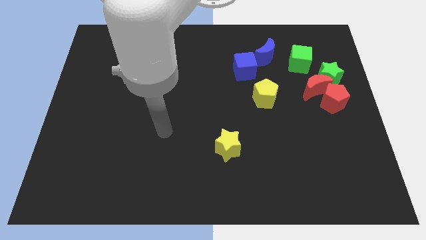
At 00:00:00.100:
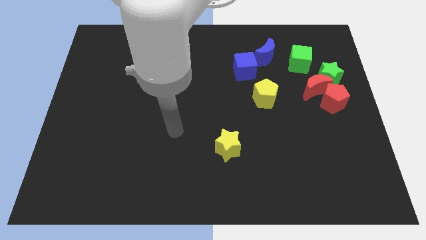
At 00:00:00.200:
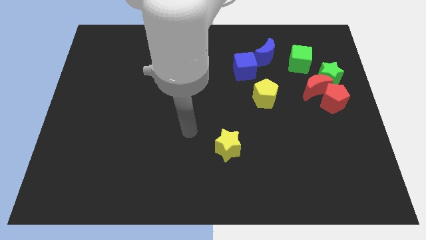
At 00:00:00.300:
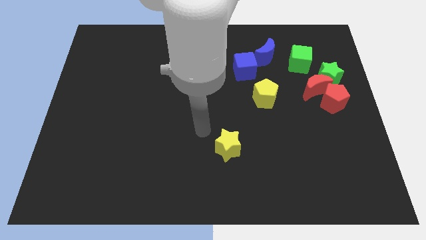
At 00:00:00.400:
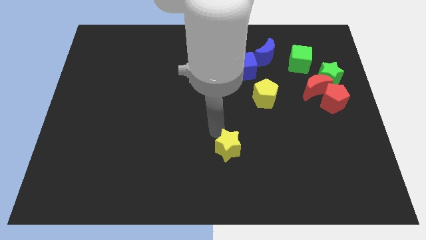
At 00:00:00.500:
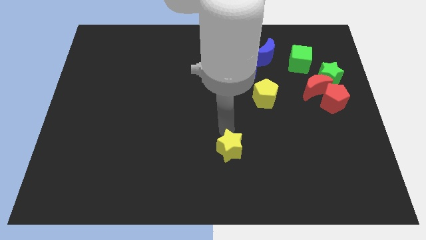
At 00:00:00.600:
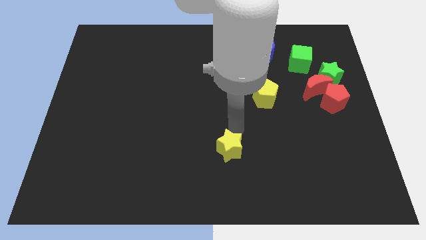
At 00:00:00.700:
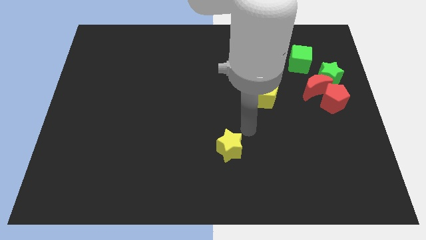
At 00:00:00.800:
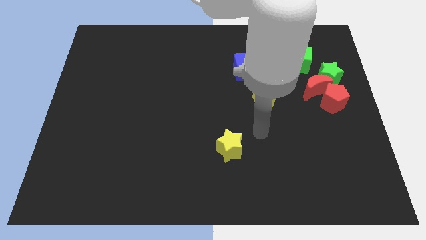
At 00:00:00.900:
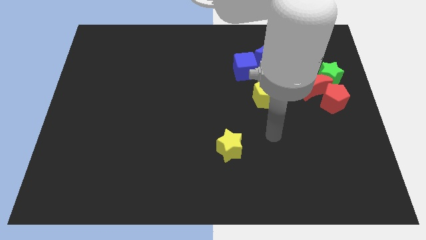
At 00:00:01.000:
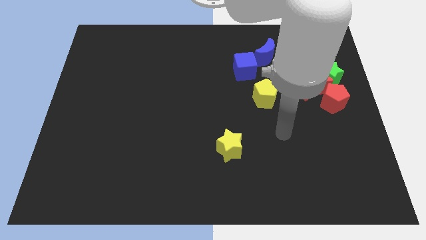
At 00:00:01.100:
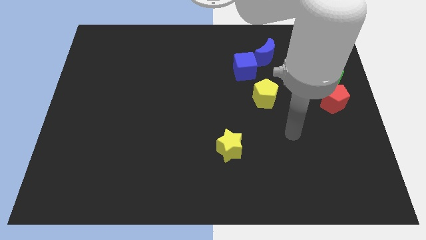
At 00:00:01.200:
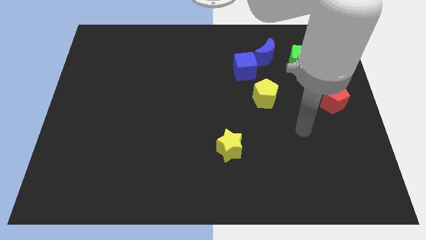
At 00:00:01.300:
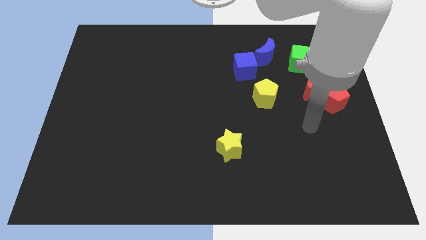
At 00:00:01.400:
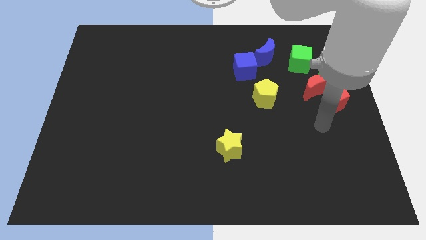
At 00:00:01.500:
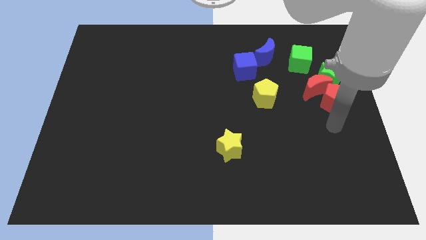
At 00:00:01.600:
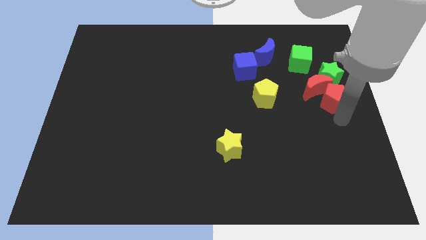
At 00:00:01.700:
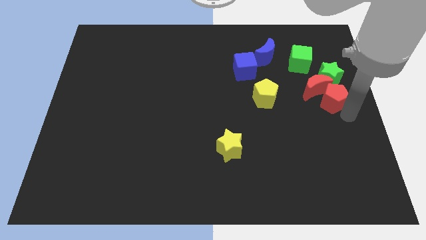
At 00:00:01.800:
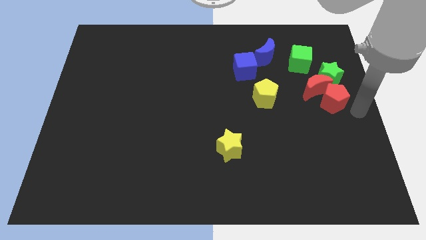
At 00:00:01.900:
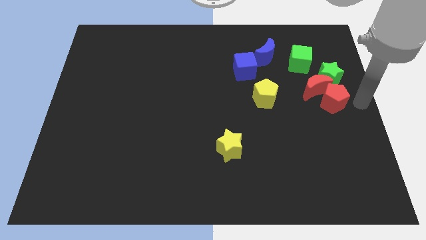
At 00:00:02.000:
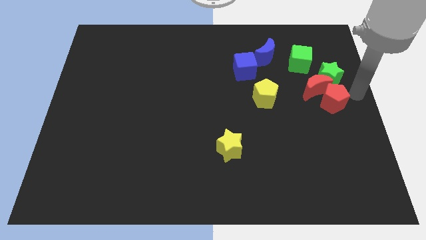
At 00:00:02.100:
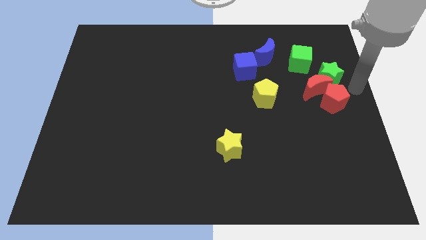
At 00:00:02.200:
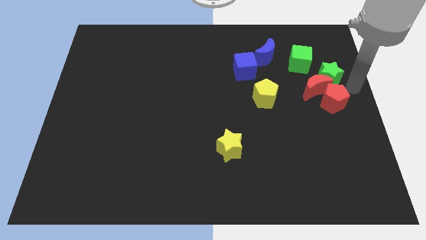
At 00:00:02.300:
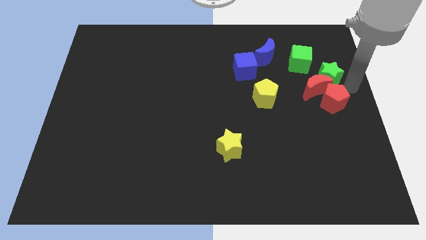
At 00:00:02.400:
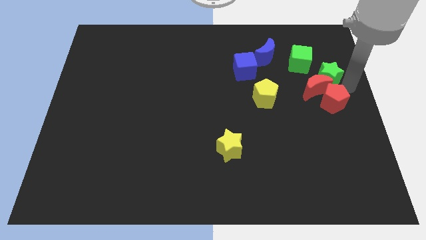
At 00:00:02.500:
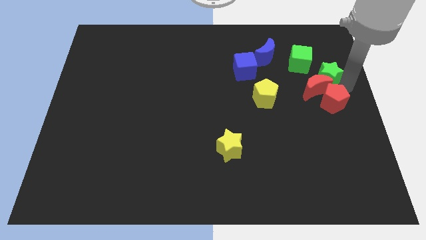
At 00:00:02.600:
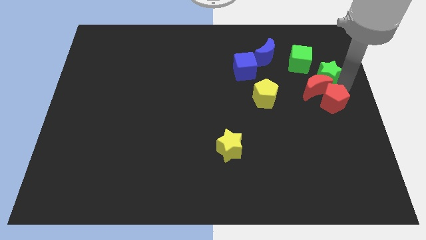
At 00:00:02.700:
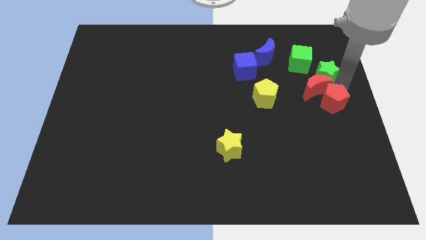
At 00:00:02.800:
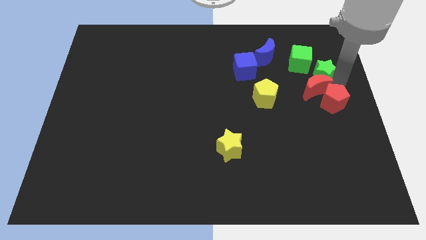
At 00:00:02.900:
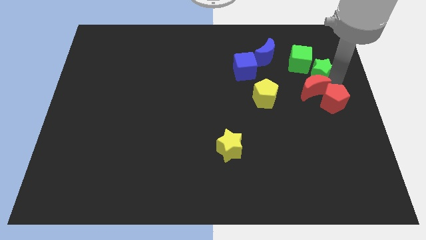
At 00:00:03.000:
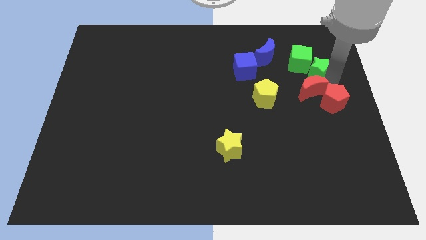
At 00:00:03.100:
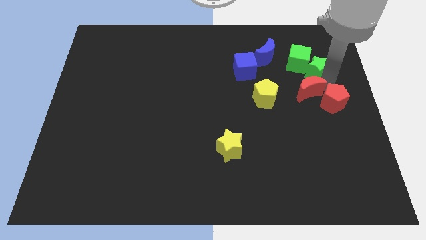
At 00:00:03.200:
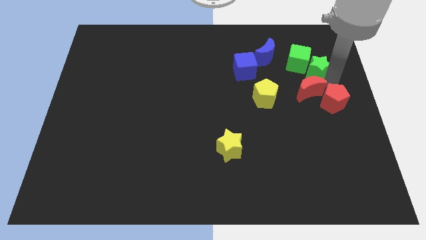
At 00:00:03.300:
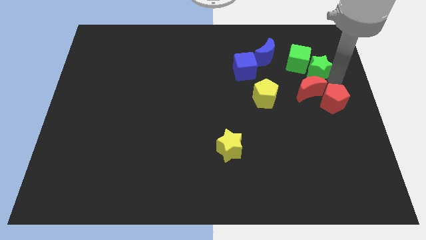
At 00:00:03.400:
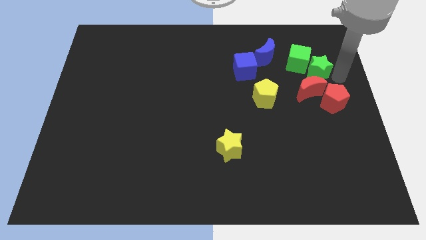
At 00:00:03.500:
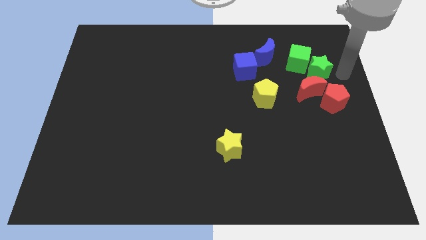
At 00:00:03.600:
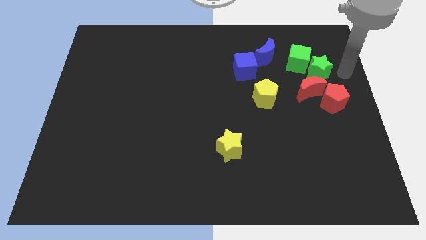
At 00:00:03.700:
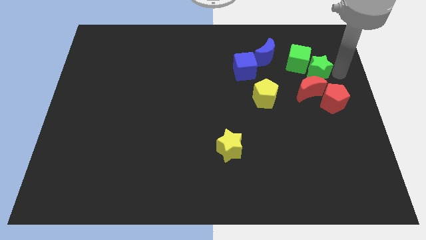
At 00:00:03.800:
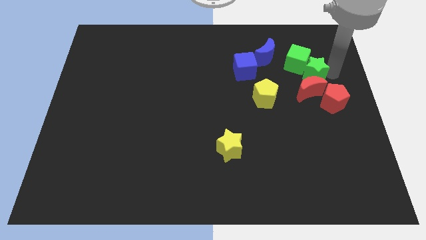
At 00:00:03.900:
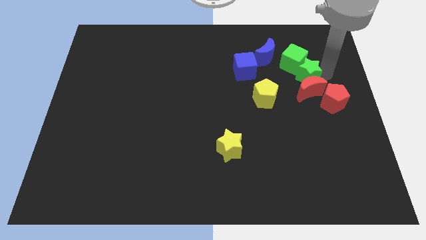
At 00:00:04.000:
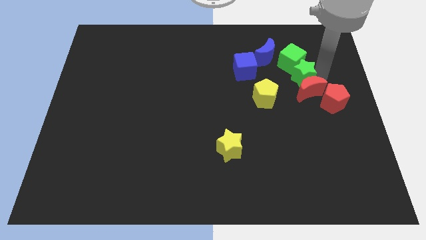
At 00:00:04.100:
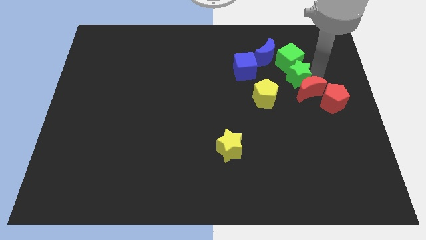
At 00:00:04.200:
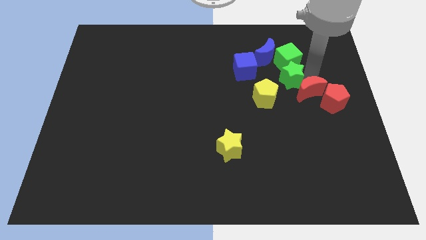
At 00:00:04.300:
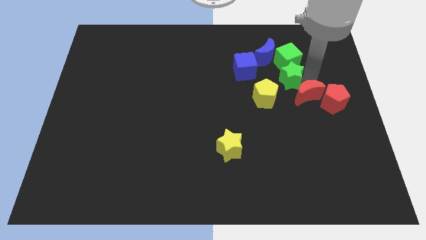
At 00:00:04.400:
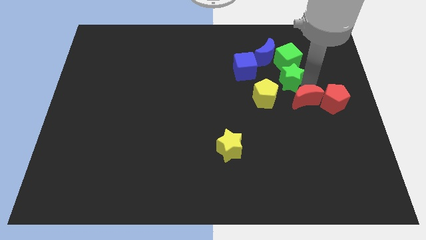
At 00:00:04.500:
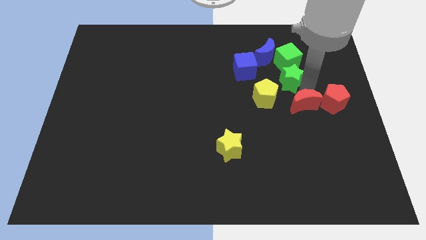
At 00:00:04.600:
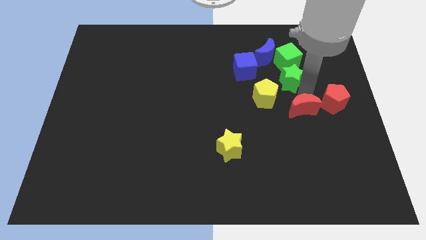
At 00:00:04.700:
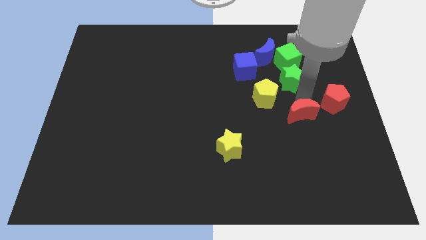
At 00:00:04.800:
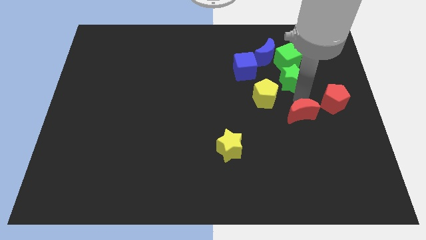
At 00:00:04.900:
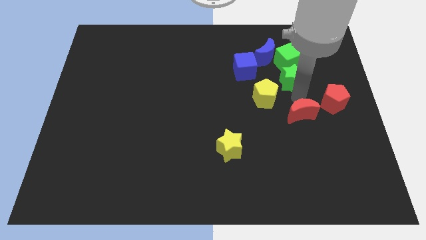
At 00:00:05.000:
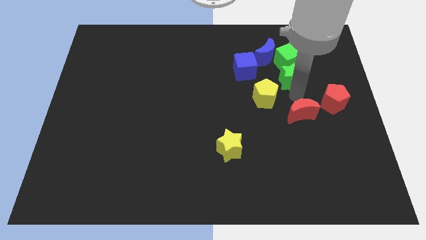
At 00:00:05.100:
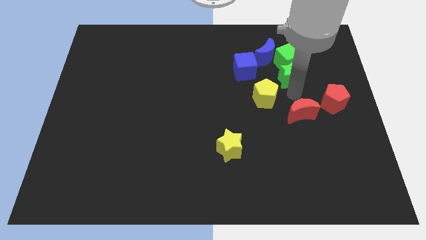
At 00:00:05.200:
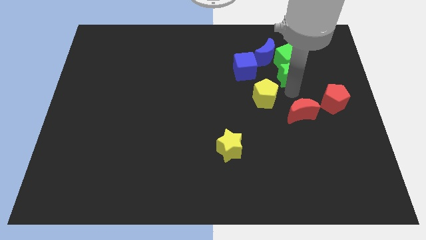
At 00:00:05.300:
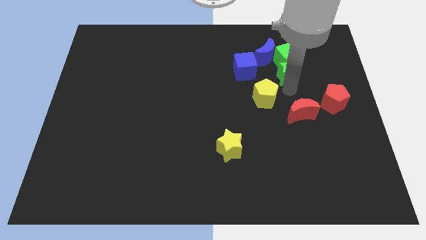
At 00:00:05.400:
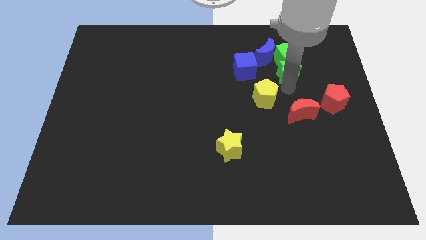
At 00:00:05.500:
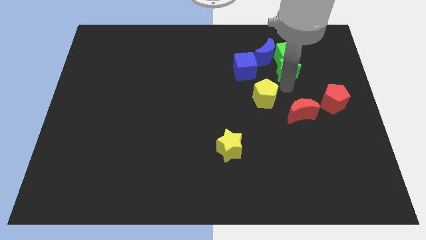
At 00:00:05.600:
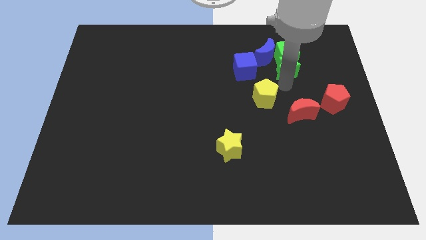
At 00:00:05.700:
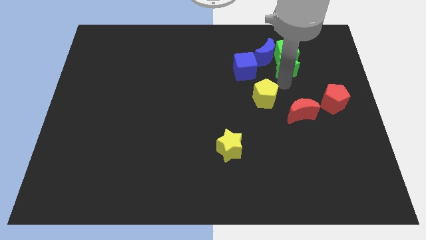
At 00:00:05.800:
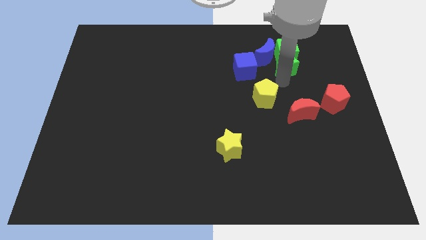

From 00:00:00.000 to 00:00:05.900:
push the green star close to the blue moon

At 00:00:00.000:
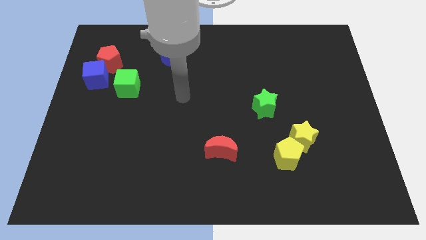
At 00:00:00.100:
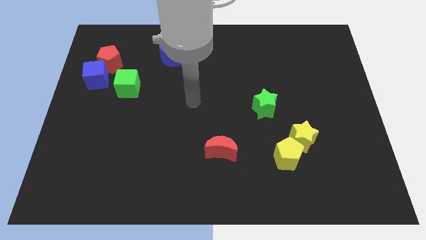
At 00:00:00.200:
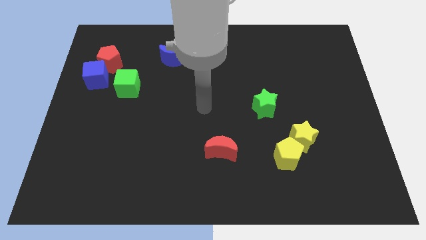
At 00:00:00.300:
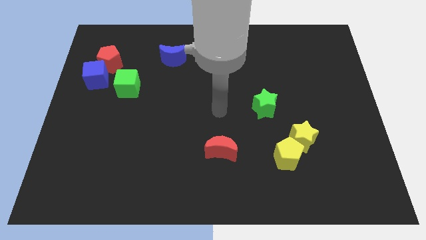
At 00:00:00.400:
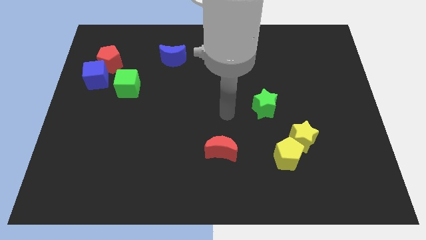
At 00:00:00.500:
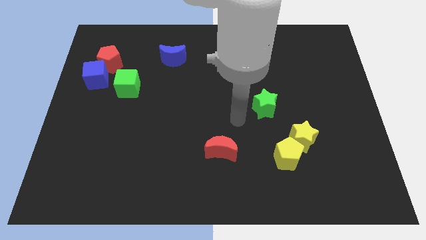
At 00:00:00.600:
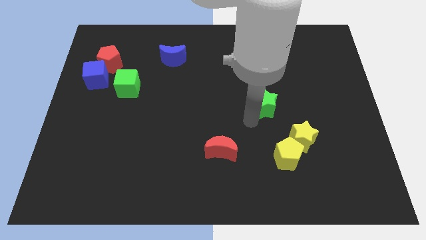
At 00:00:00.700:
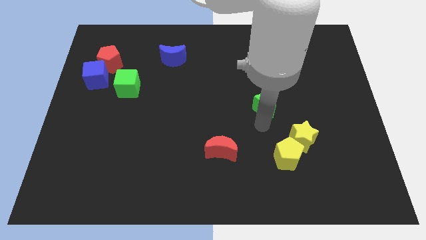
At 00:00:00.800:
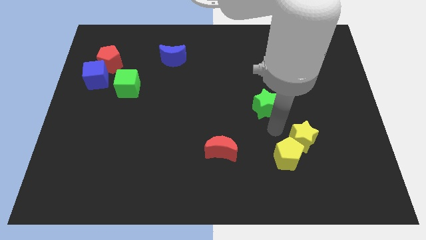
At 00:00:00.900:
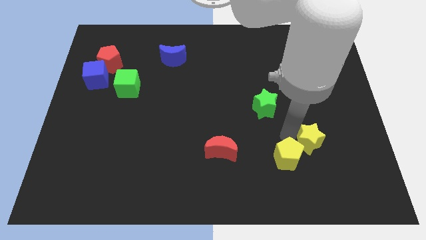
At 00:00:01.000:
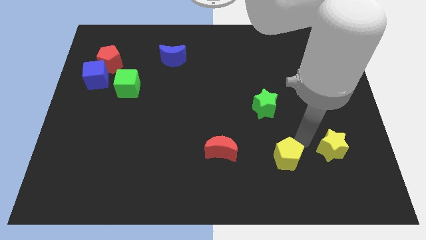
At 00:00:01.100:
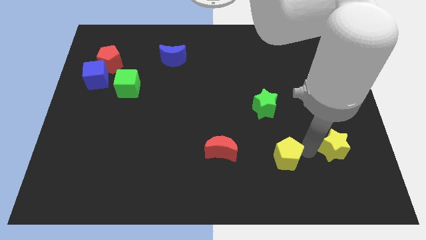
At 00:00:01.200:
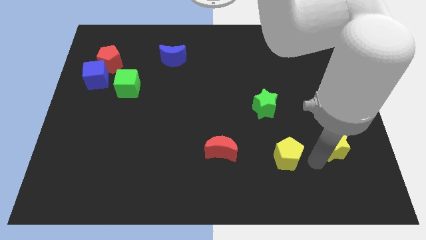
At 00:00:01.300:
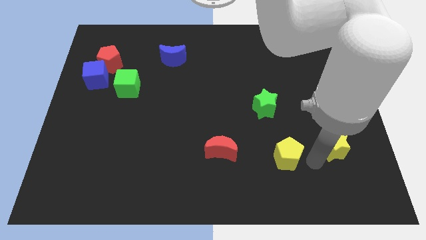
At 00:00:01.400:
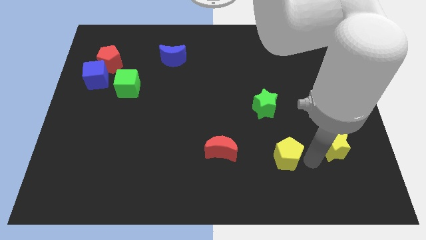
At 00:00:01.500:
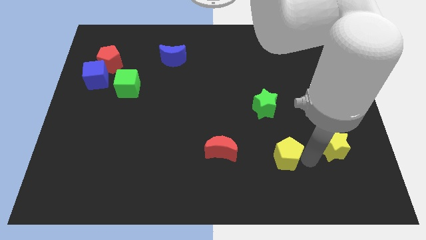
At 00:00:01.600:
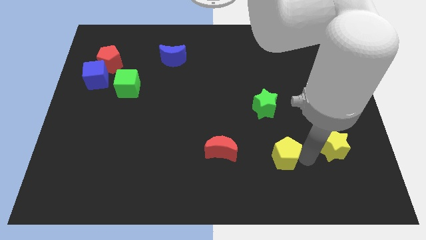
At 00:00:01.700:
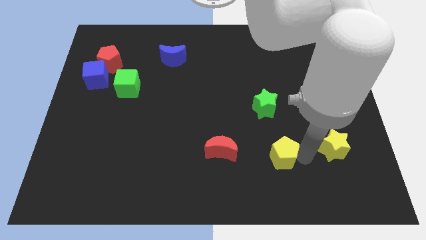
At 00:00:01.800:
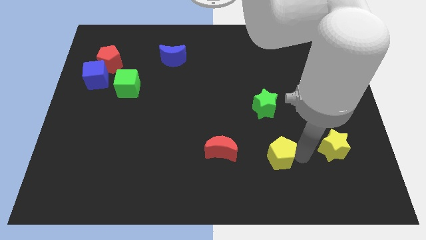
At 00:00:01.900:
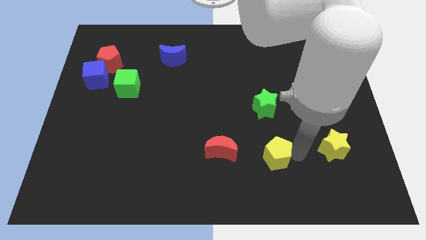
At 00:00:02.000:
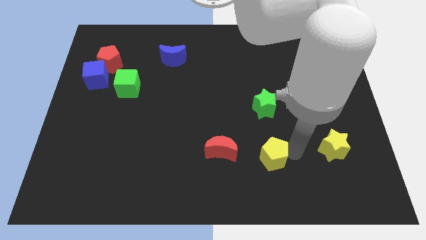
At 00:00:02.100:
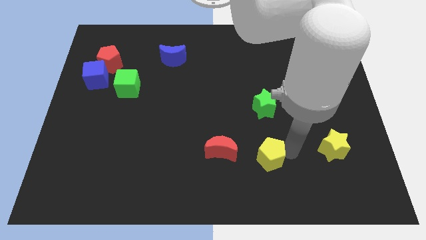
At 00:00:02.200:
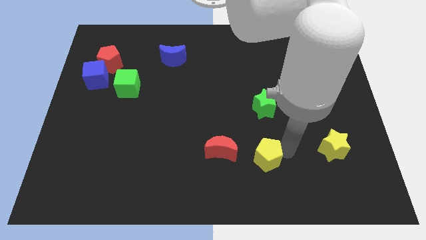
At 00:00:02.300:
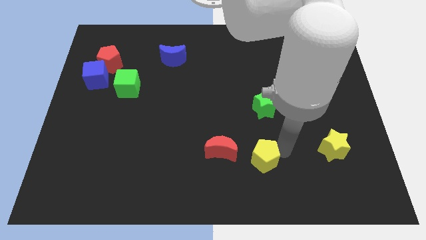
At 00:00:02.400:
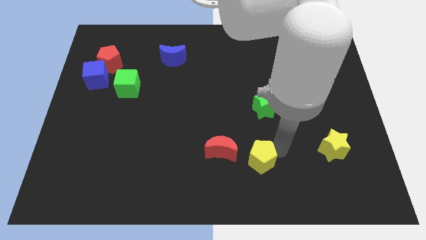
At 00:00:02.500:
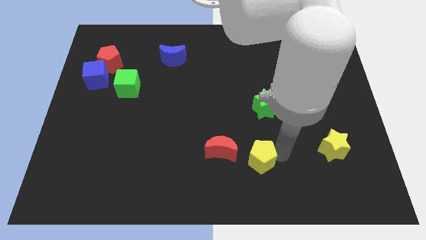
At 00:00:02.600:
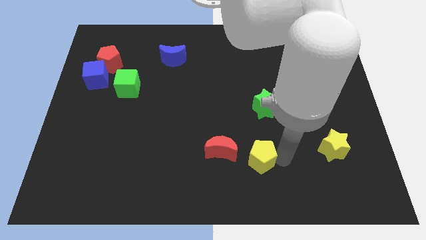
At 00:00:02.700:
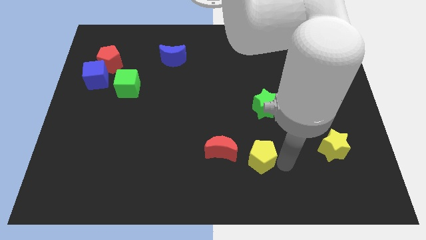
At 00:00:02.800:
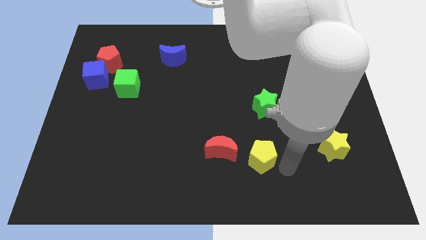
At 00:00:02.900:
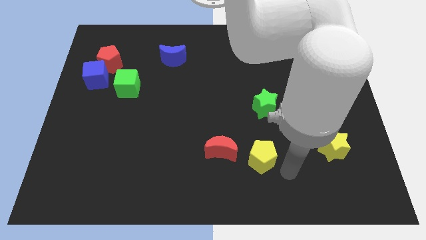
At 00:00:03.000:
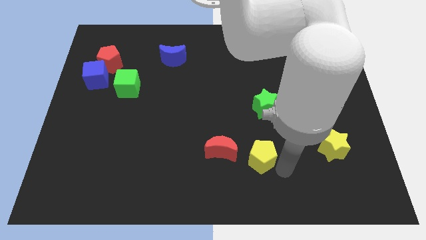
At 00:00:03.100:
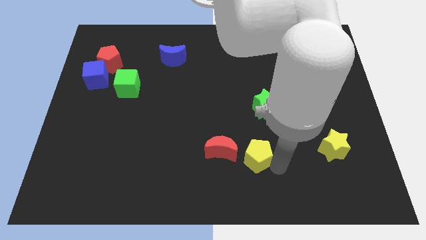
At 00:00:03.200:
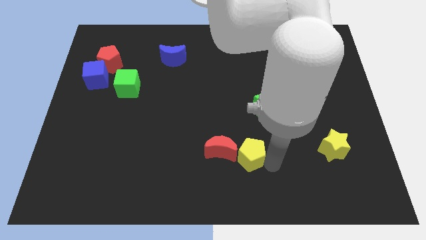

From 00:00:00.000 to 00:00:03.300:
push the yellow pentagon towards the red moon
